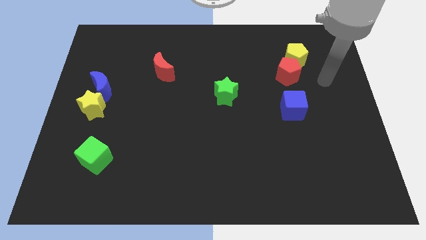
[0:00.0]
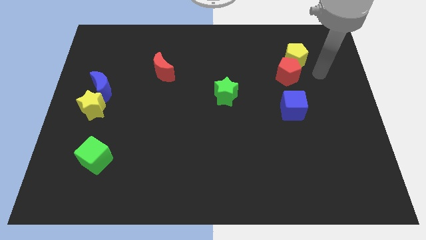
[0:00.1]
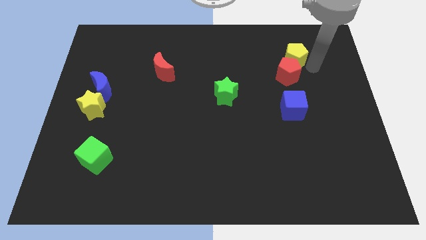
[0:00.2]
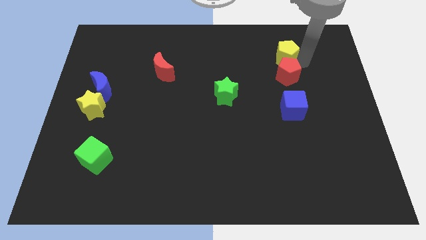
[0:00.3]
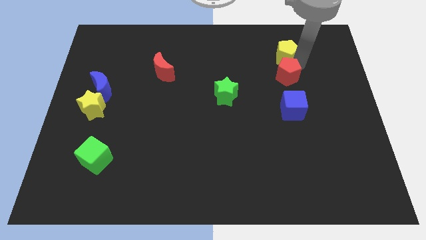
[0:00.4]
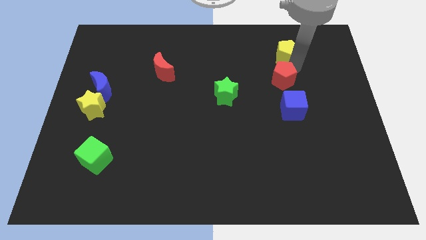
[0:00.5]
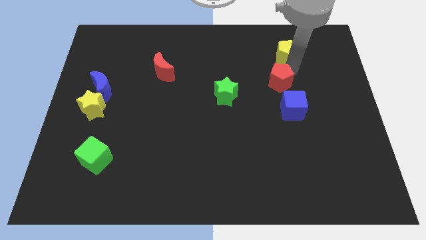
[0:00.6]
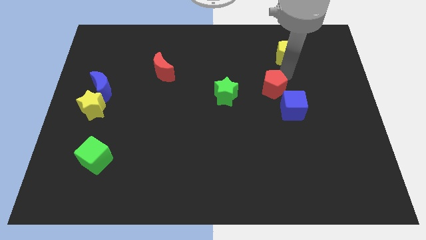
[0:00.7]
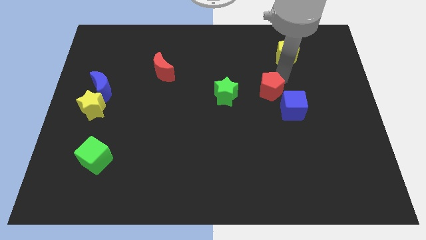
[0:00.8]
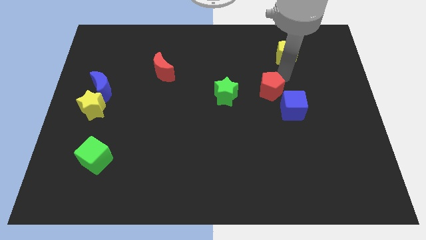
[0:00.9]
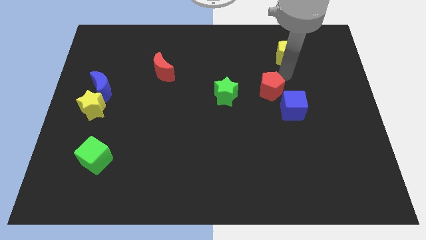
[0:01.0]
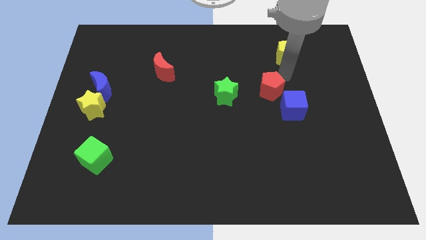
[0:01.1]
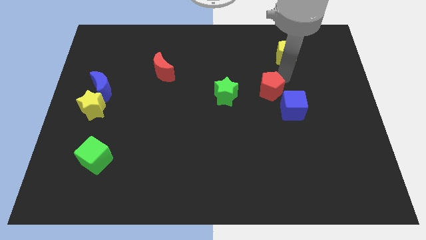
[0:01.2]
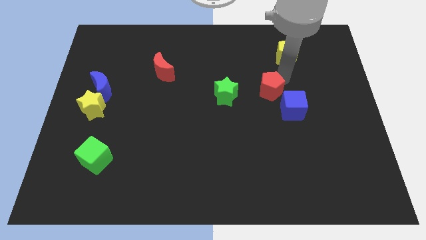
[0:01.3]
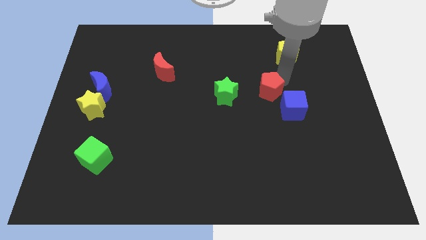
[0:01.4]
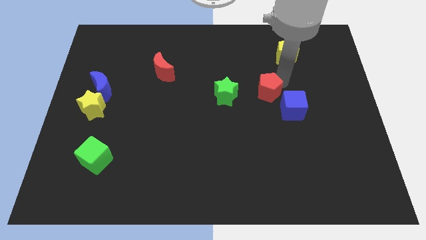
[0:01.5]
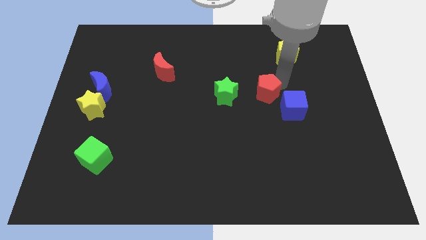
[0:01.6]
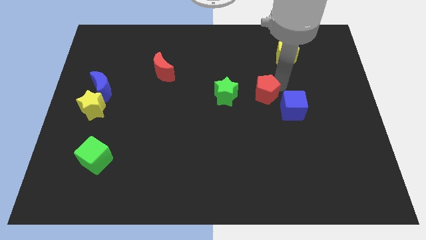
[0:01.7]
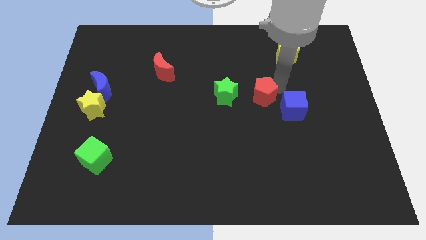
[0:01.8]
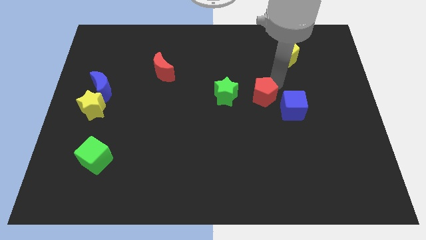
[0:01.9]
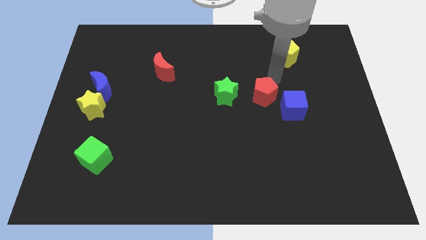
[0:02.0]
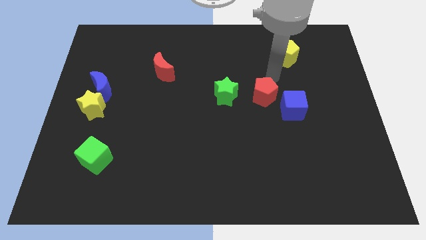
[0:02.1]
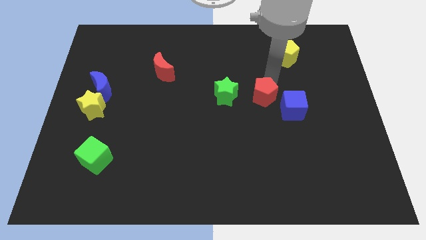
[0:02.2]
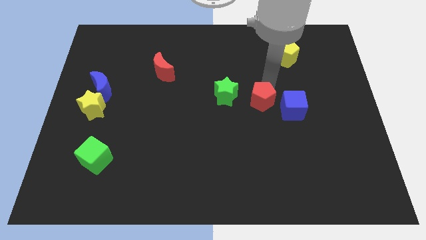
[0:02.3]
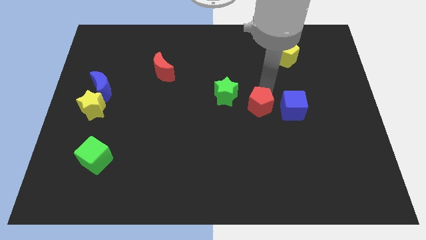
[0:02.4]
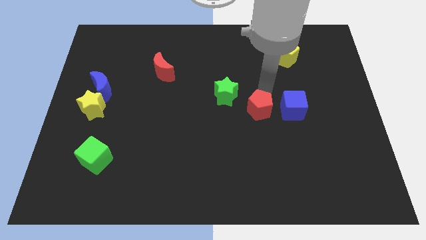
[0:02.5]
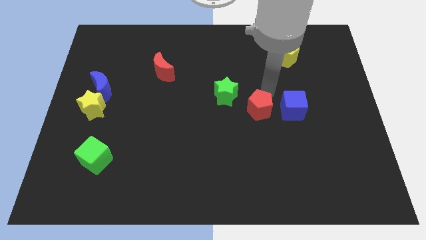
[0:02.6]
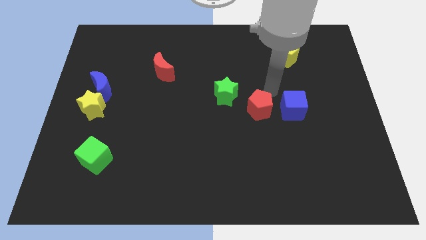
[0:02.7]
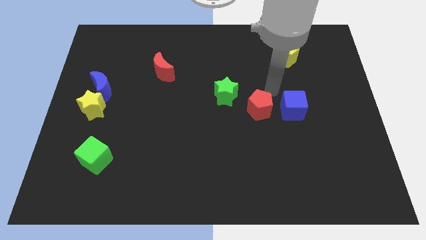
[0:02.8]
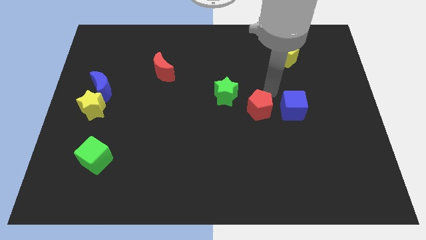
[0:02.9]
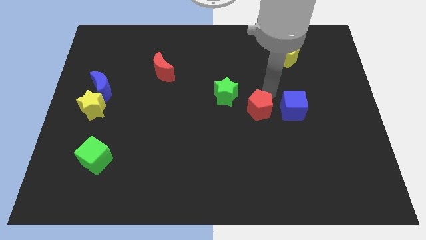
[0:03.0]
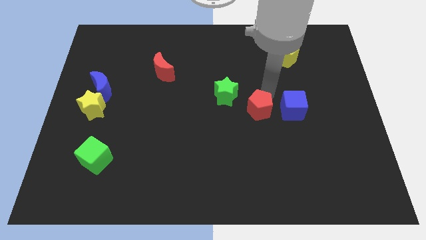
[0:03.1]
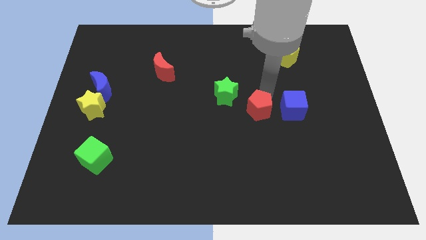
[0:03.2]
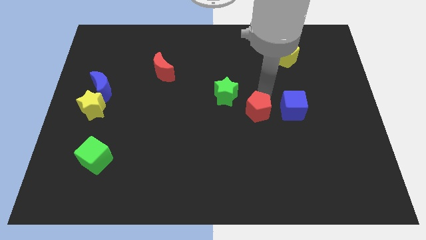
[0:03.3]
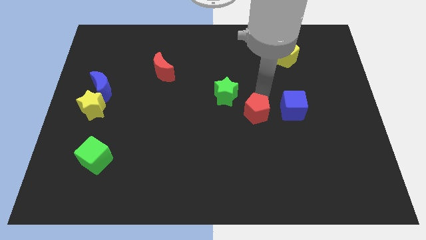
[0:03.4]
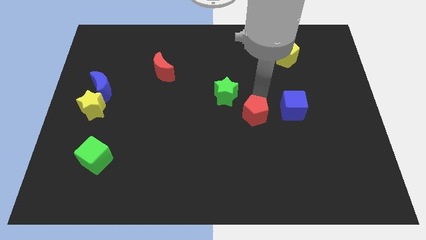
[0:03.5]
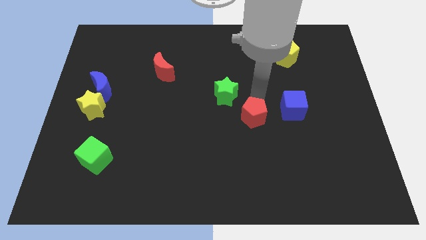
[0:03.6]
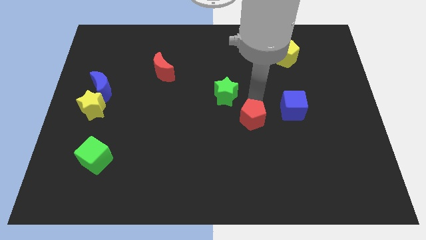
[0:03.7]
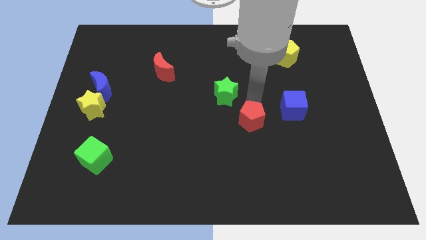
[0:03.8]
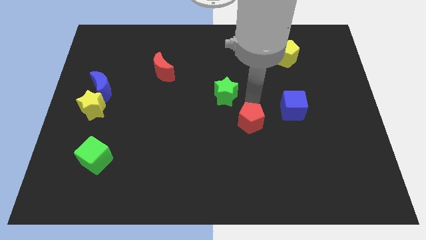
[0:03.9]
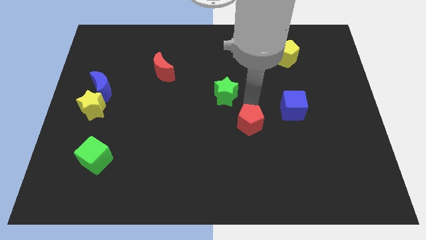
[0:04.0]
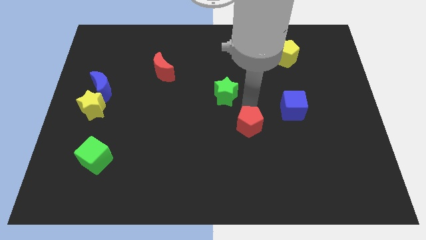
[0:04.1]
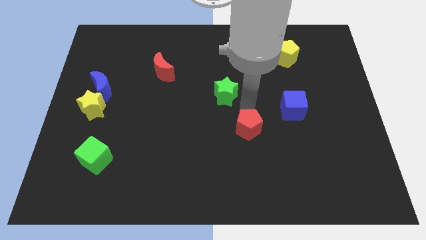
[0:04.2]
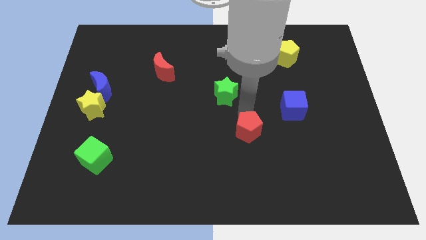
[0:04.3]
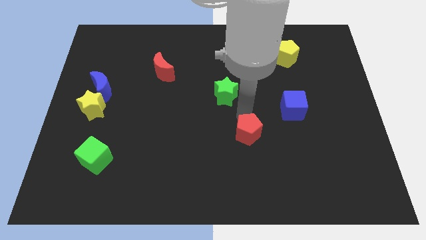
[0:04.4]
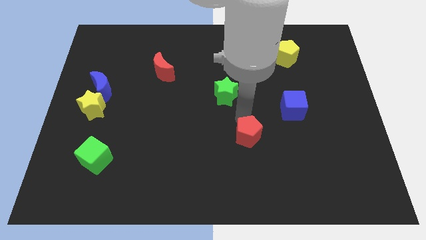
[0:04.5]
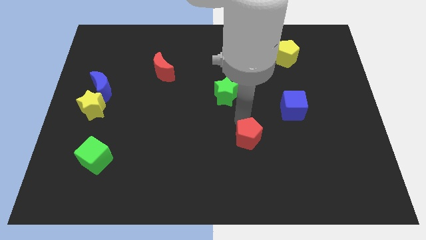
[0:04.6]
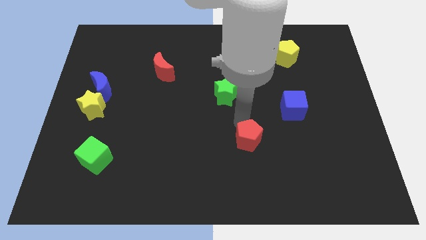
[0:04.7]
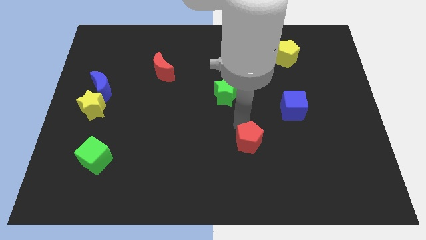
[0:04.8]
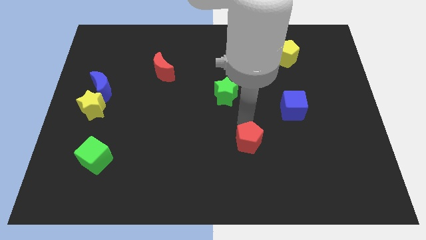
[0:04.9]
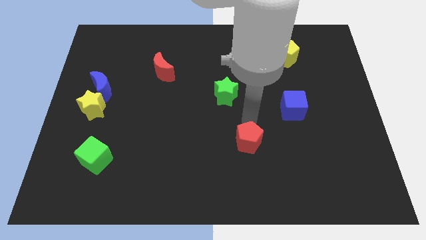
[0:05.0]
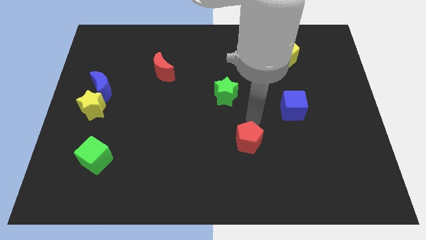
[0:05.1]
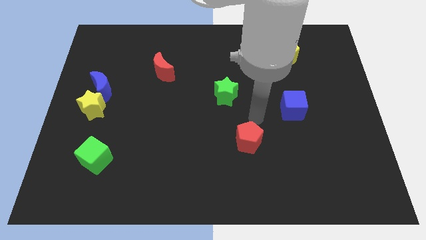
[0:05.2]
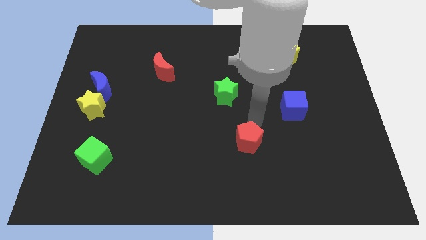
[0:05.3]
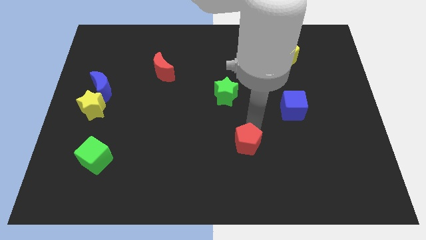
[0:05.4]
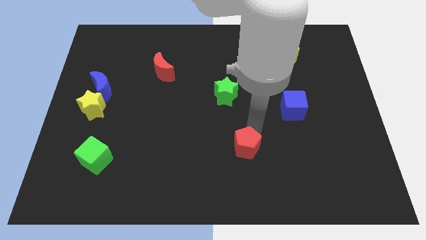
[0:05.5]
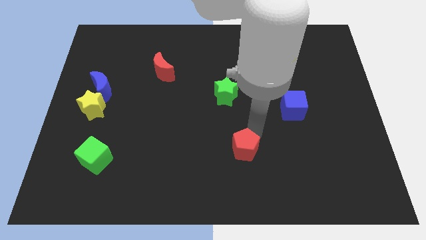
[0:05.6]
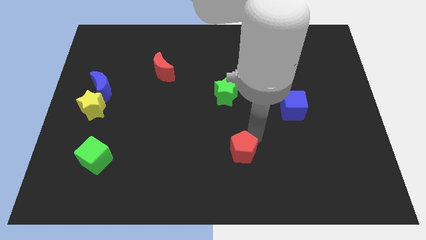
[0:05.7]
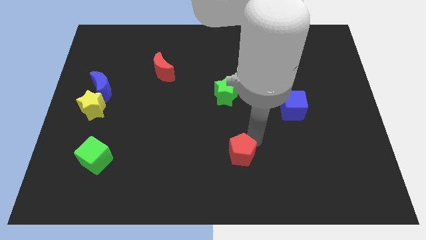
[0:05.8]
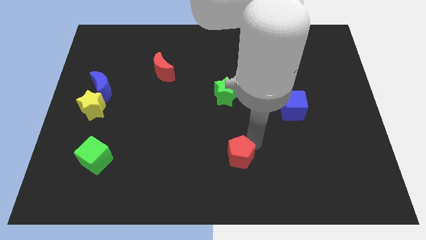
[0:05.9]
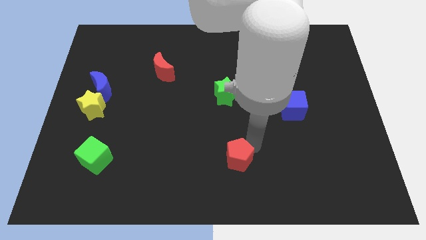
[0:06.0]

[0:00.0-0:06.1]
move the red pentagon to the bottom
